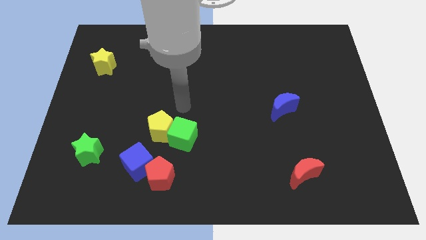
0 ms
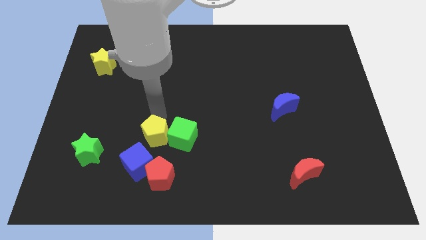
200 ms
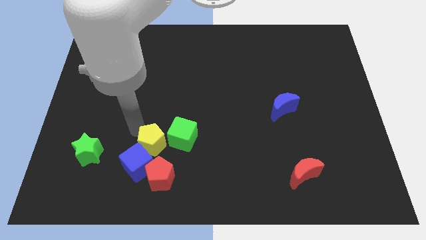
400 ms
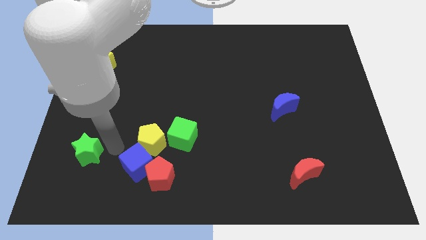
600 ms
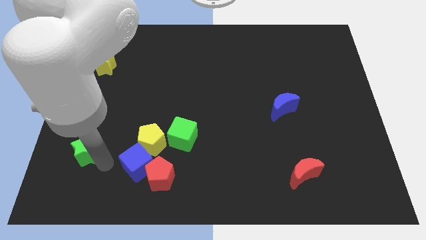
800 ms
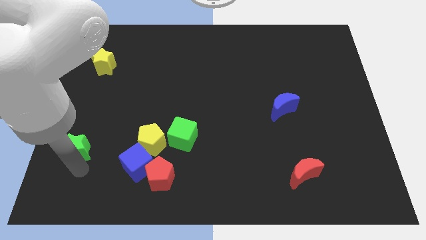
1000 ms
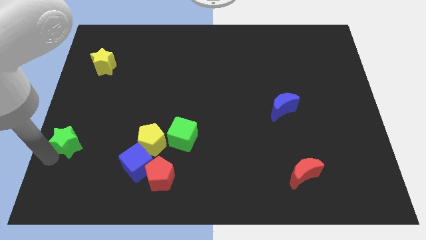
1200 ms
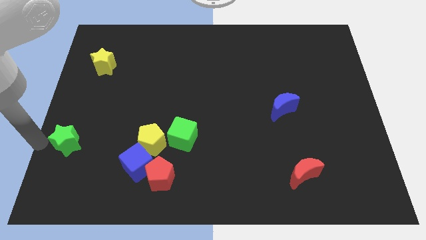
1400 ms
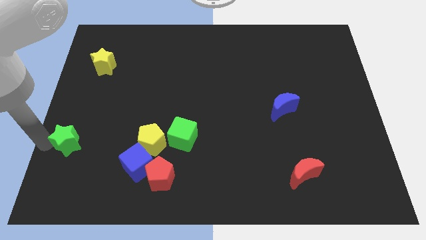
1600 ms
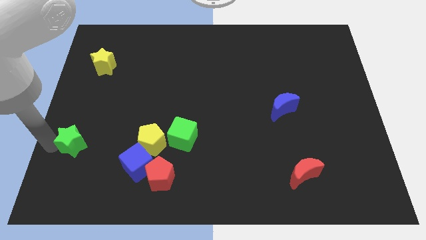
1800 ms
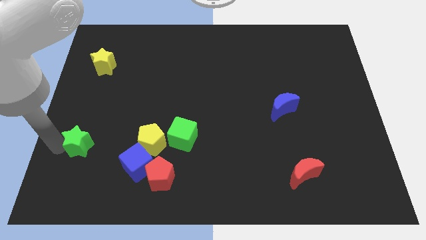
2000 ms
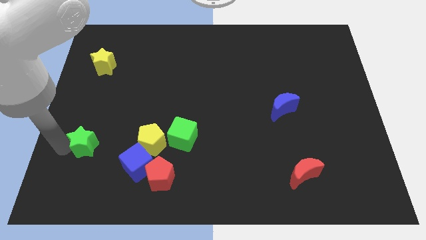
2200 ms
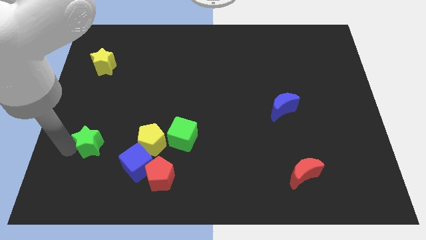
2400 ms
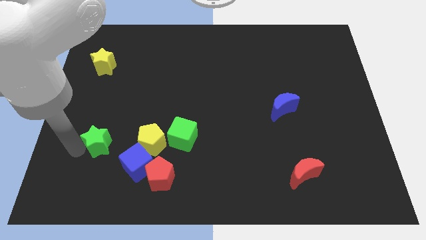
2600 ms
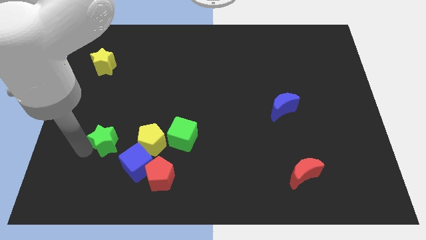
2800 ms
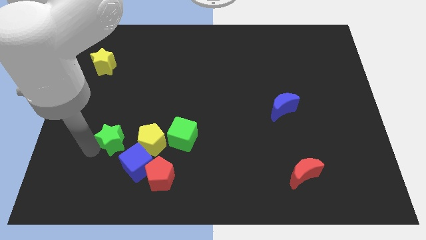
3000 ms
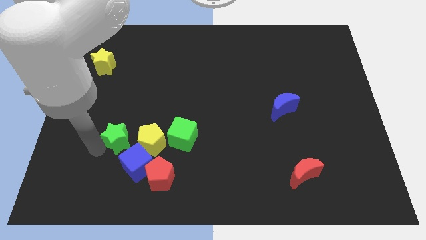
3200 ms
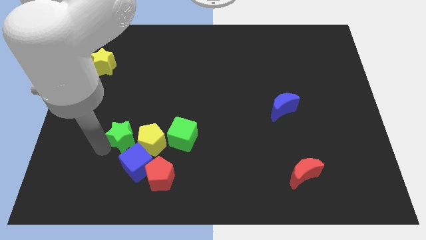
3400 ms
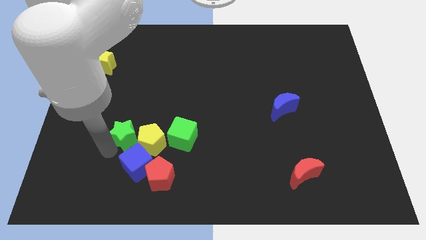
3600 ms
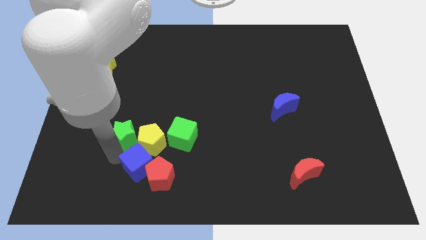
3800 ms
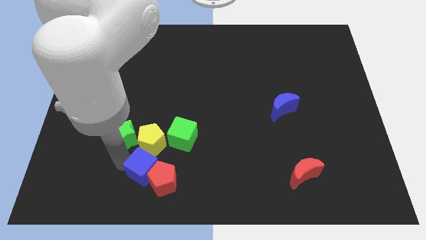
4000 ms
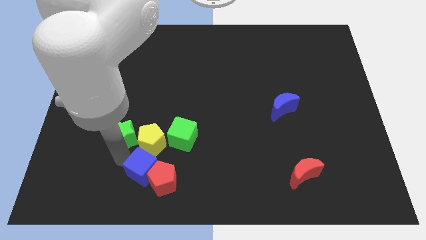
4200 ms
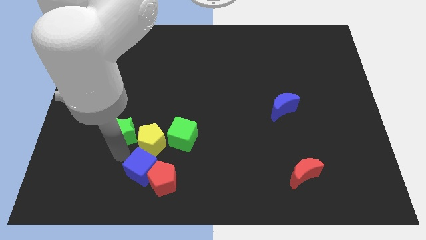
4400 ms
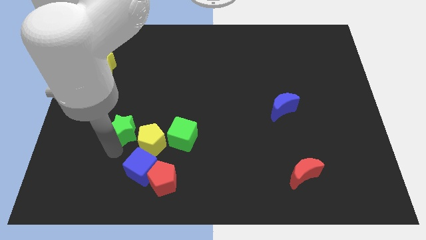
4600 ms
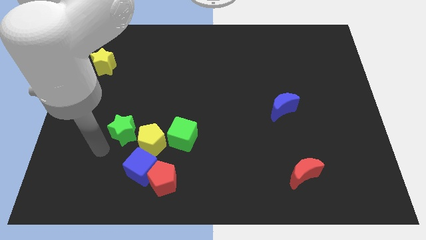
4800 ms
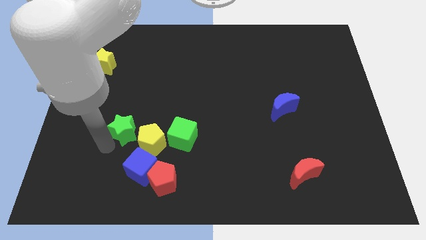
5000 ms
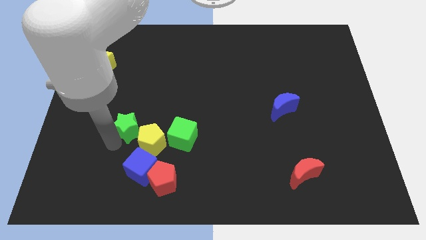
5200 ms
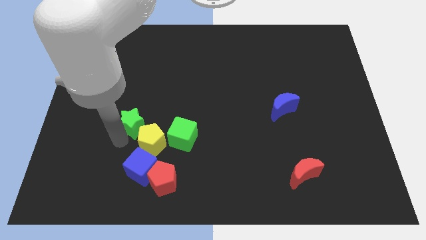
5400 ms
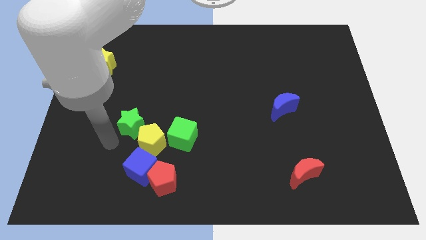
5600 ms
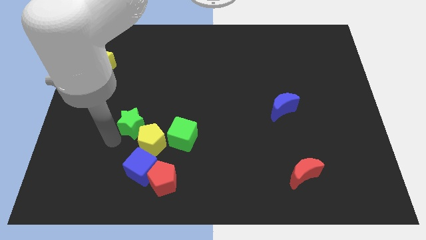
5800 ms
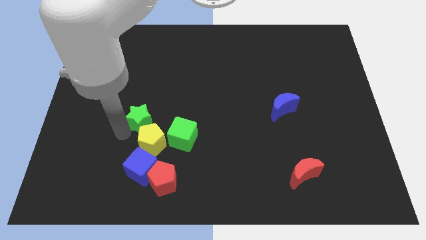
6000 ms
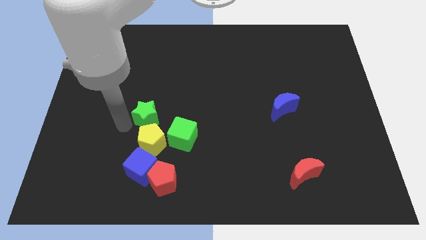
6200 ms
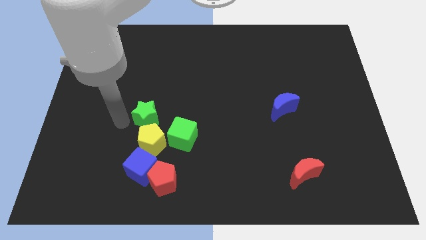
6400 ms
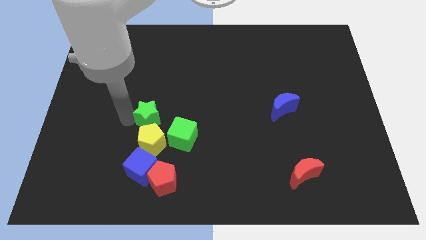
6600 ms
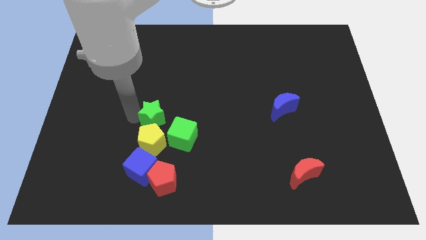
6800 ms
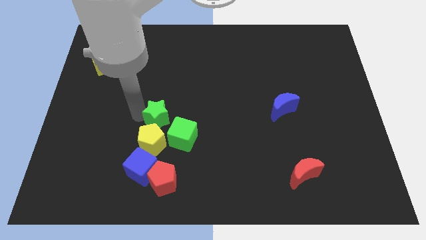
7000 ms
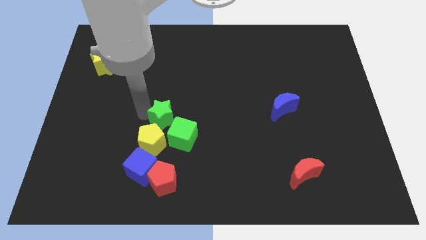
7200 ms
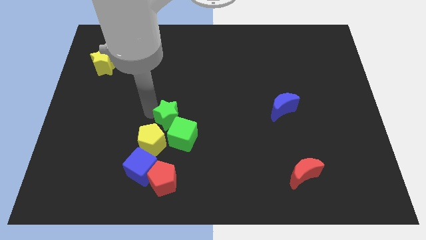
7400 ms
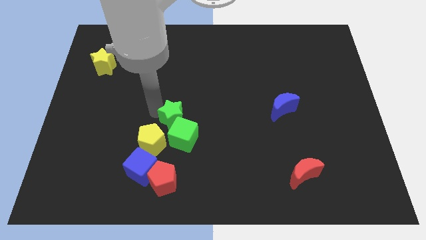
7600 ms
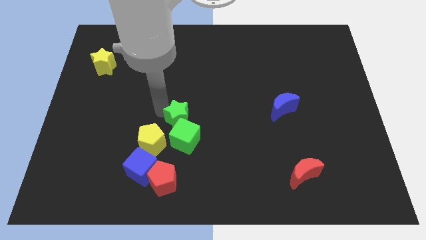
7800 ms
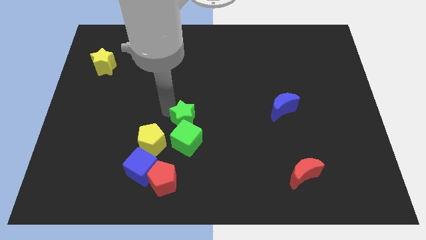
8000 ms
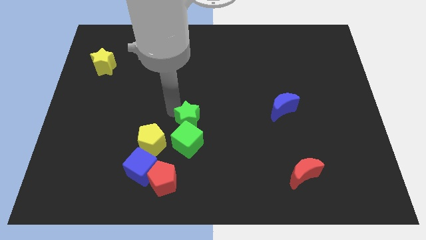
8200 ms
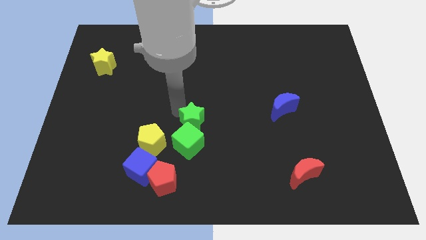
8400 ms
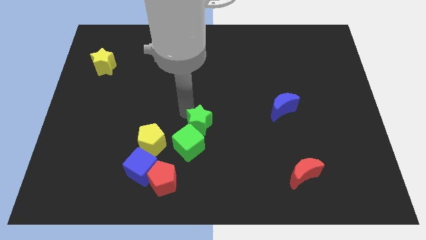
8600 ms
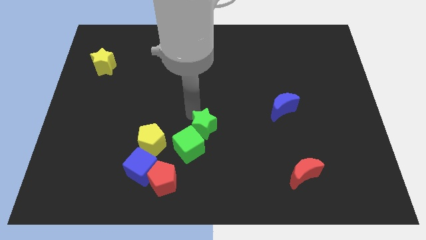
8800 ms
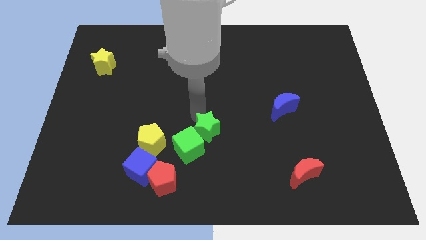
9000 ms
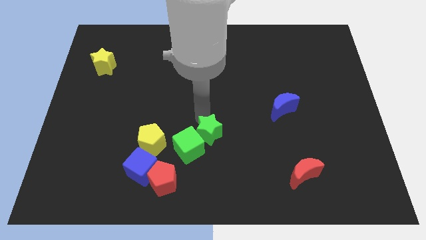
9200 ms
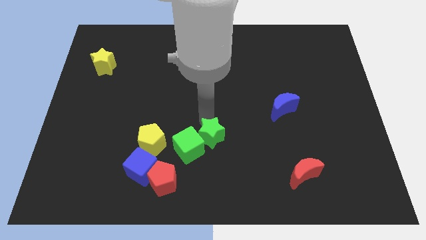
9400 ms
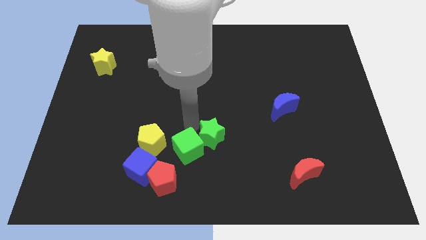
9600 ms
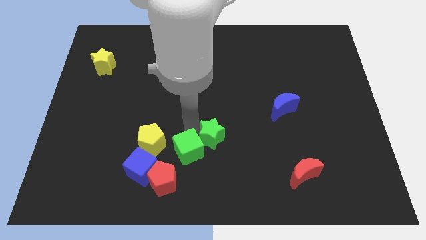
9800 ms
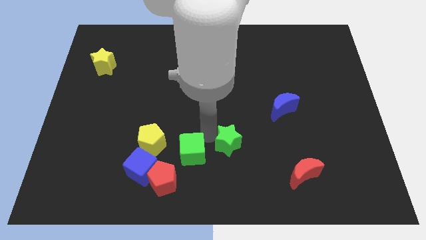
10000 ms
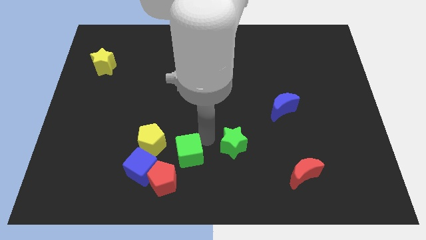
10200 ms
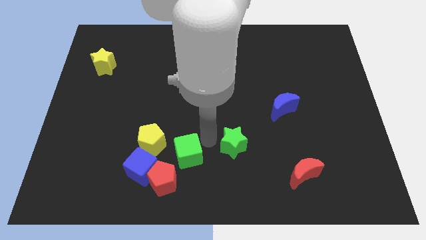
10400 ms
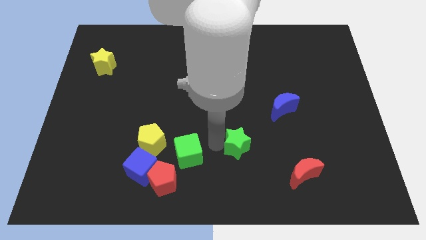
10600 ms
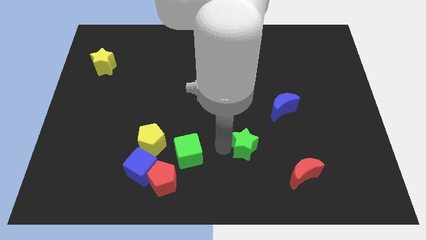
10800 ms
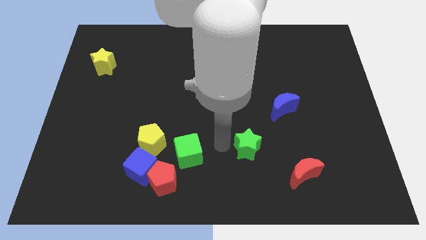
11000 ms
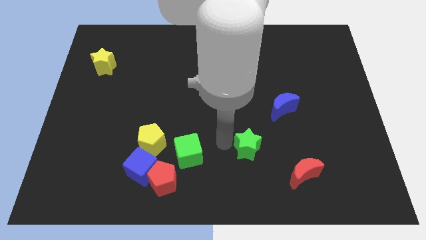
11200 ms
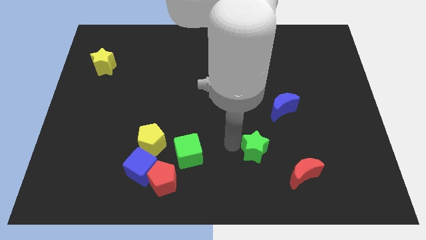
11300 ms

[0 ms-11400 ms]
push the green star to the top left side of the red moon
